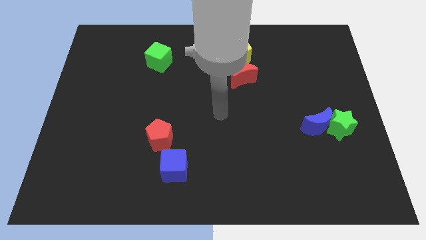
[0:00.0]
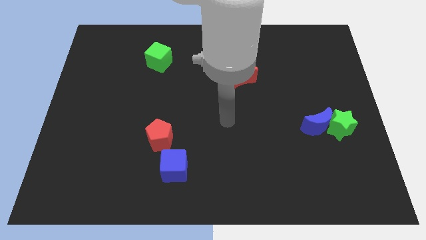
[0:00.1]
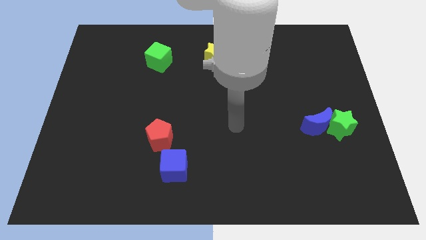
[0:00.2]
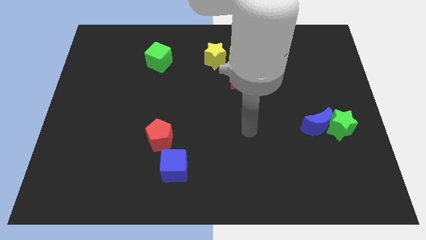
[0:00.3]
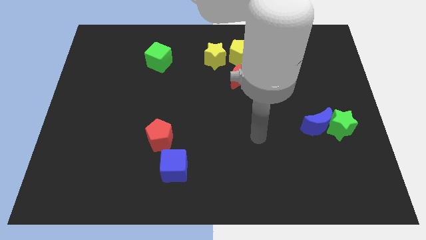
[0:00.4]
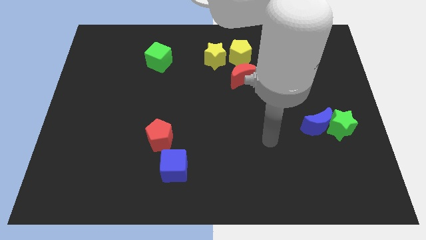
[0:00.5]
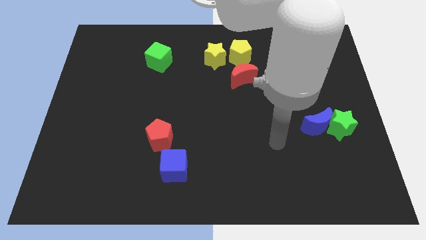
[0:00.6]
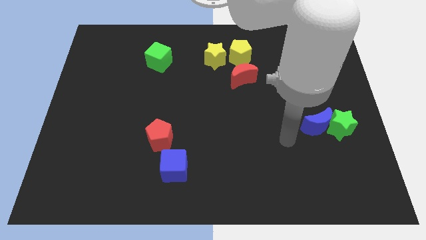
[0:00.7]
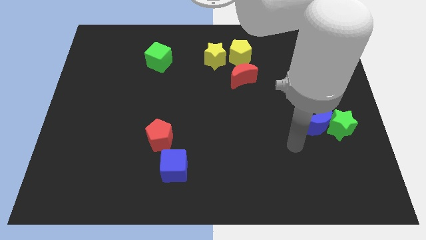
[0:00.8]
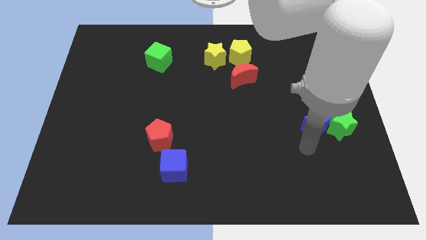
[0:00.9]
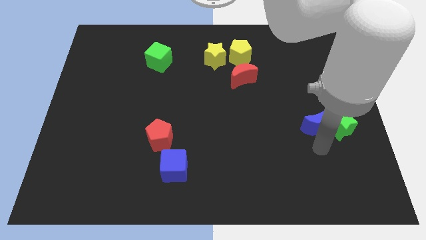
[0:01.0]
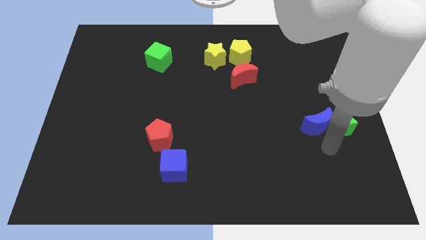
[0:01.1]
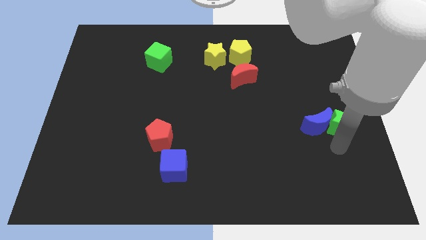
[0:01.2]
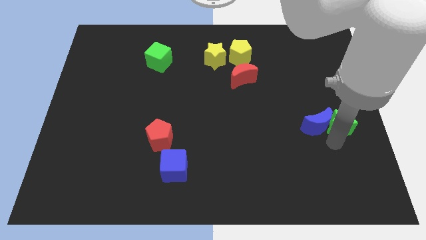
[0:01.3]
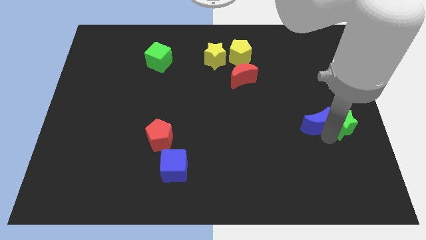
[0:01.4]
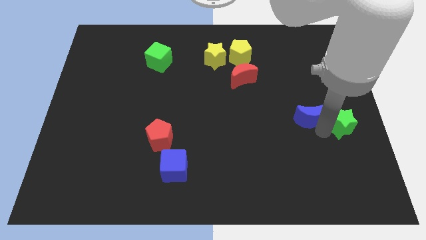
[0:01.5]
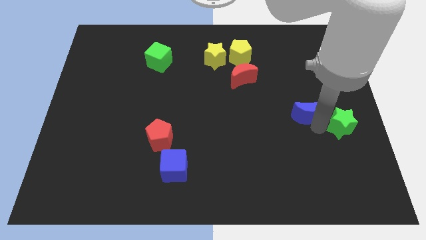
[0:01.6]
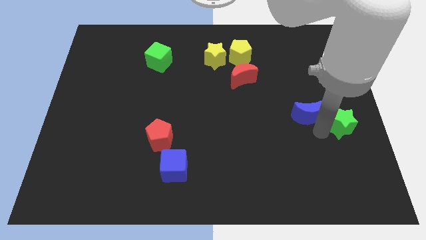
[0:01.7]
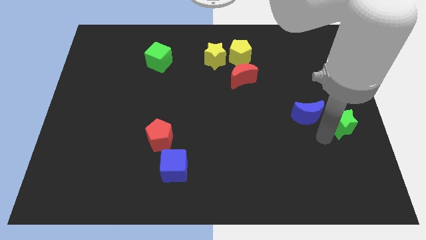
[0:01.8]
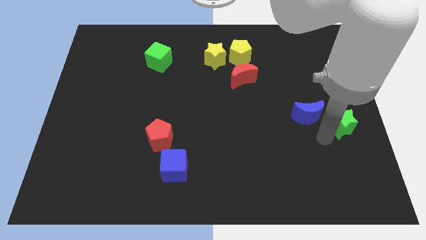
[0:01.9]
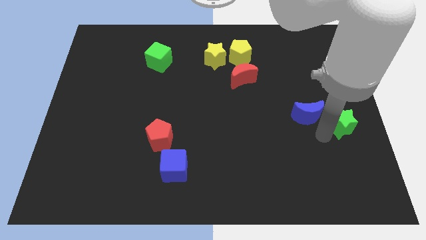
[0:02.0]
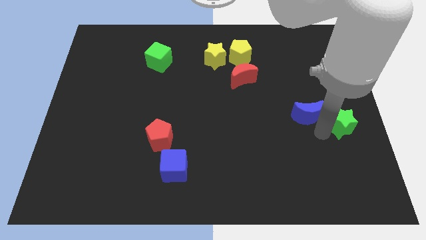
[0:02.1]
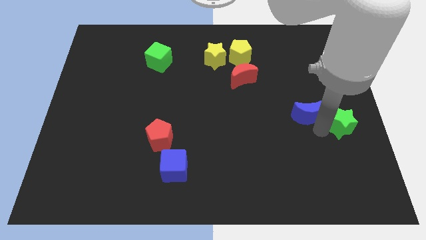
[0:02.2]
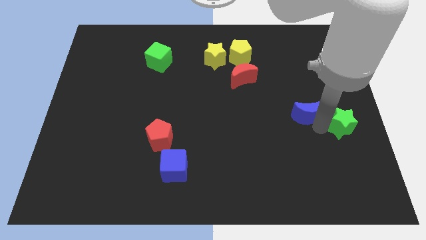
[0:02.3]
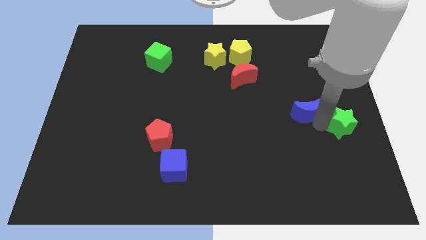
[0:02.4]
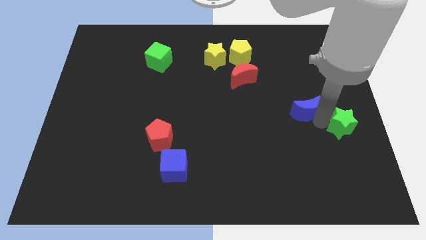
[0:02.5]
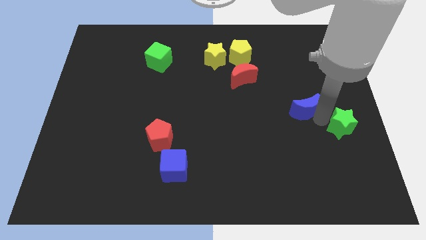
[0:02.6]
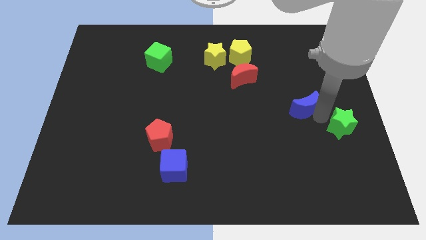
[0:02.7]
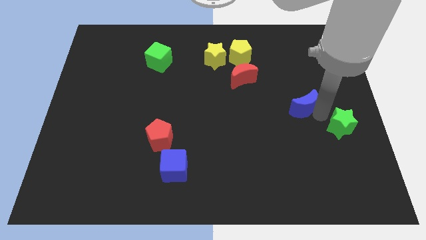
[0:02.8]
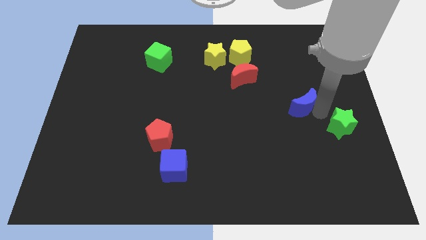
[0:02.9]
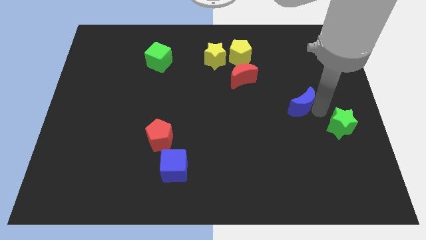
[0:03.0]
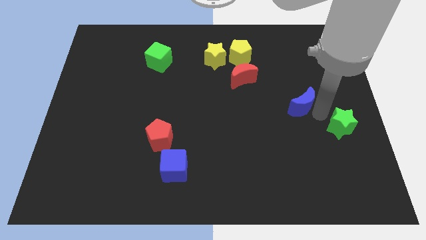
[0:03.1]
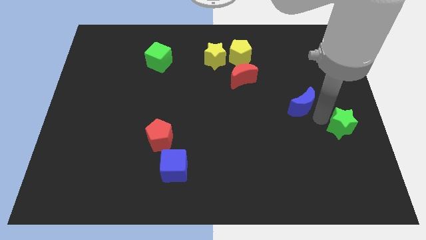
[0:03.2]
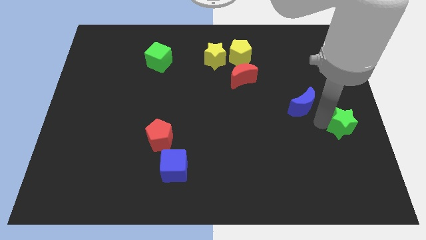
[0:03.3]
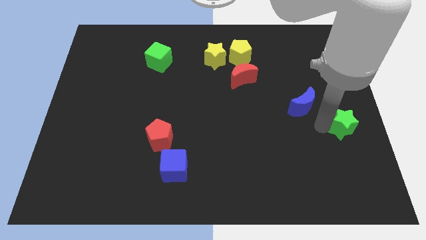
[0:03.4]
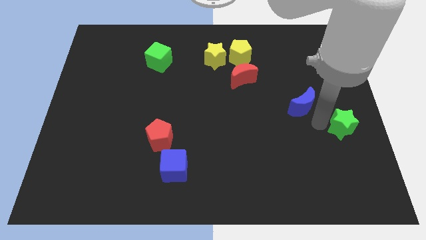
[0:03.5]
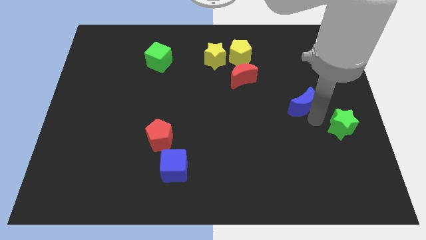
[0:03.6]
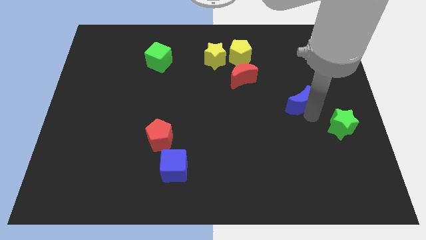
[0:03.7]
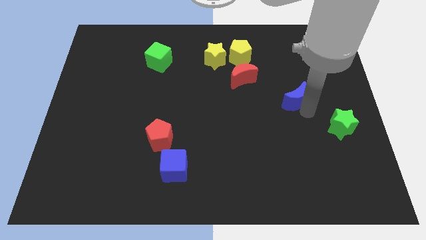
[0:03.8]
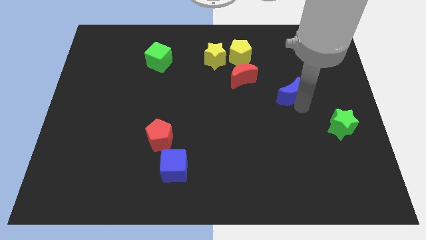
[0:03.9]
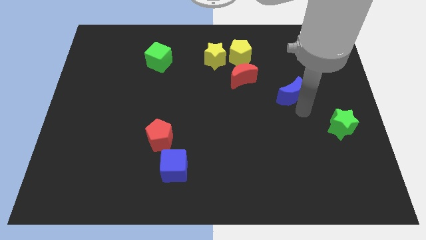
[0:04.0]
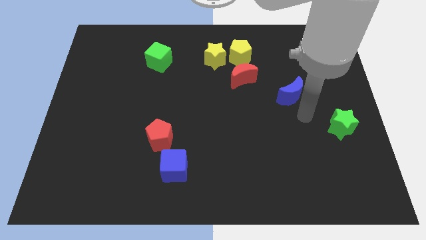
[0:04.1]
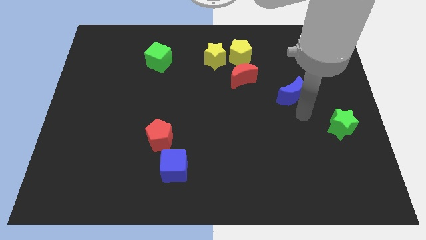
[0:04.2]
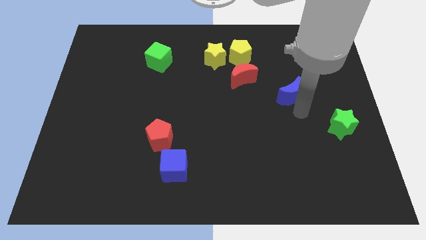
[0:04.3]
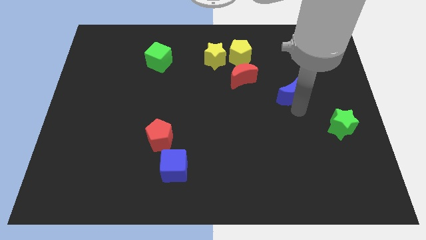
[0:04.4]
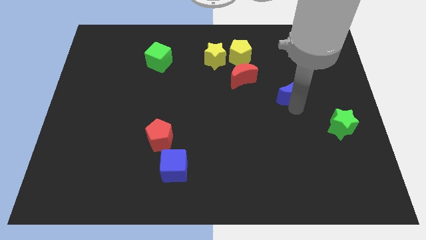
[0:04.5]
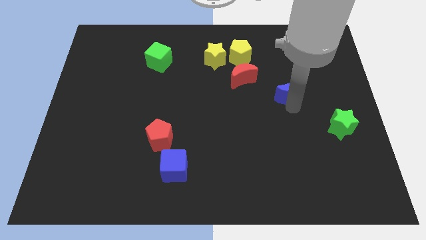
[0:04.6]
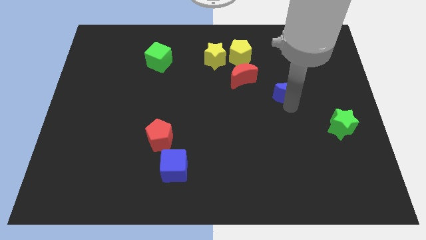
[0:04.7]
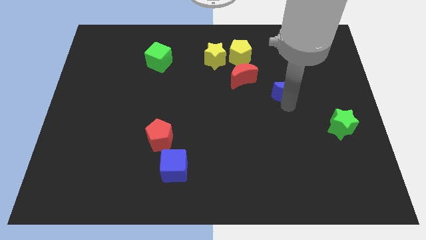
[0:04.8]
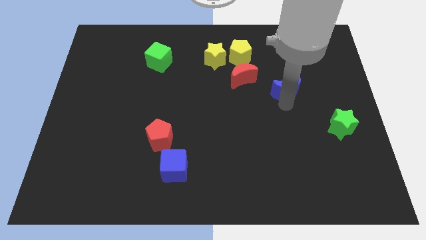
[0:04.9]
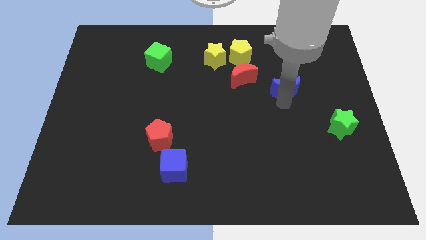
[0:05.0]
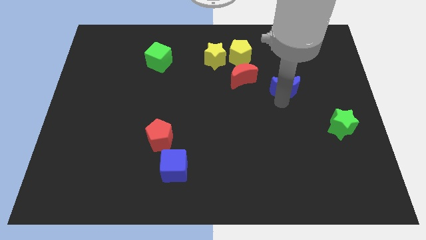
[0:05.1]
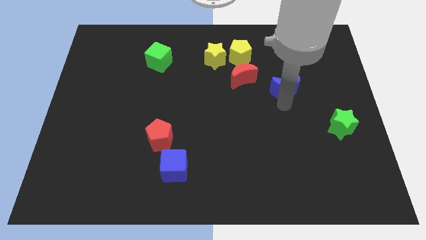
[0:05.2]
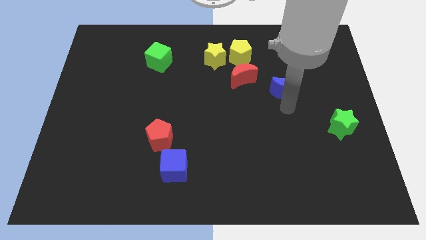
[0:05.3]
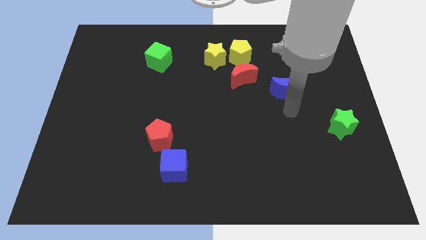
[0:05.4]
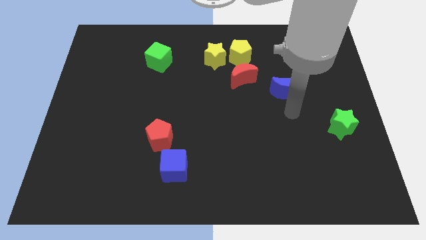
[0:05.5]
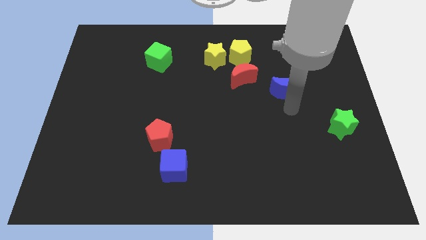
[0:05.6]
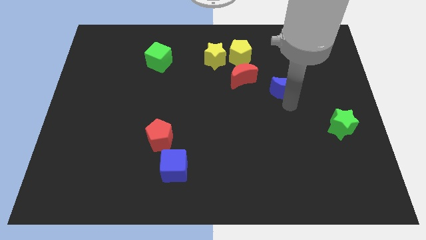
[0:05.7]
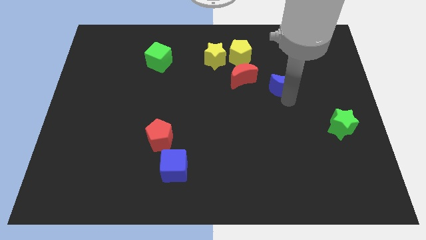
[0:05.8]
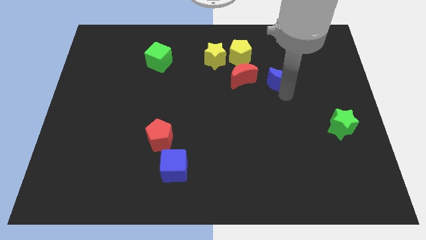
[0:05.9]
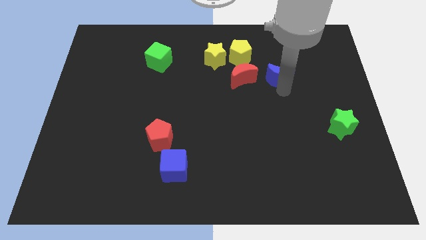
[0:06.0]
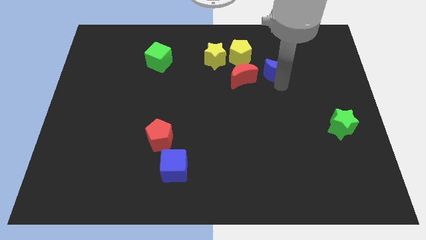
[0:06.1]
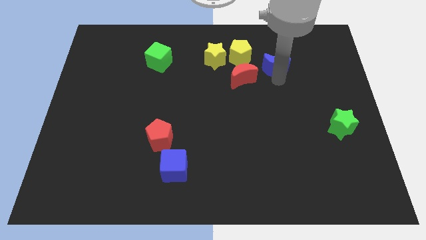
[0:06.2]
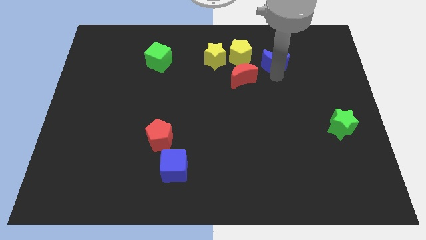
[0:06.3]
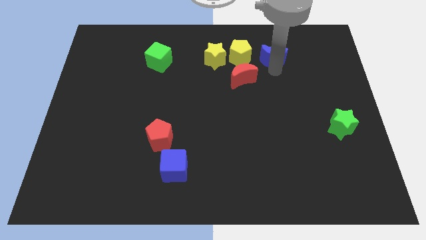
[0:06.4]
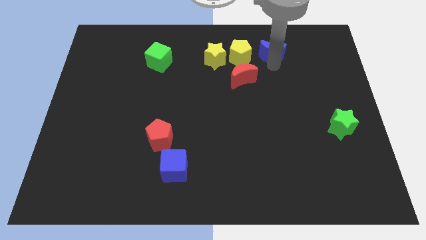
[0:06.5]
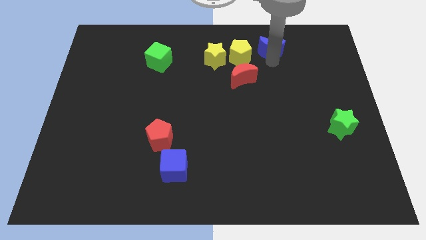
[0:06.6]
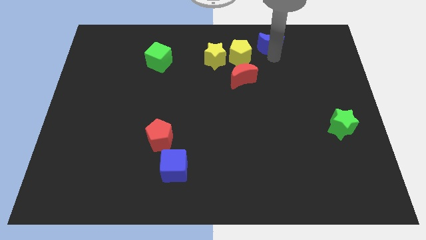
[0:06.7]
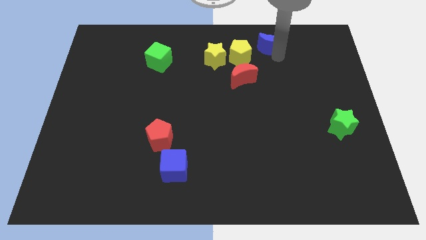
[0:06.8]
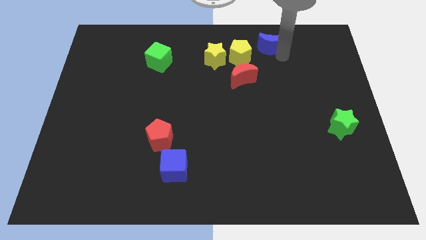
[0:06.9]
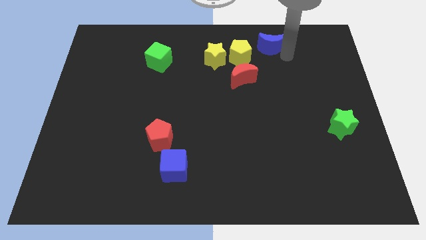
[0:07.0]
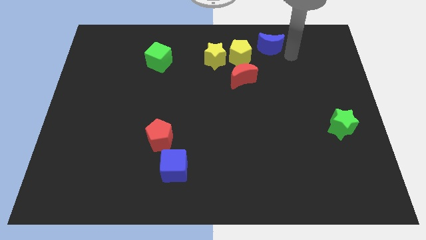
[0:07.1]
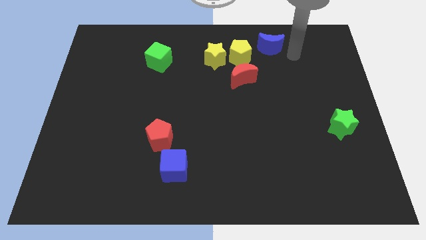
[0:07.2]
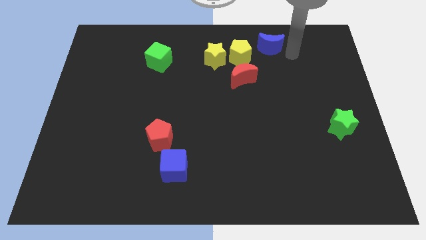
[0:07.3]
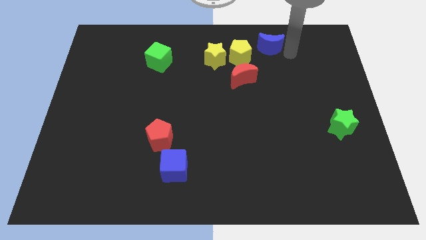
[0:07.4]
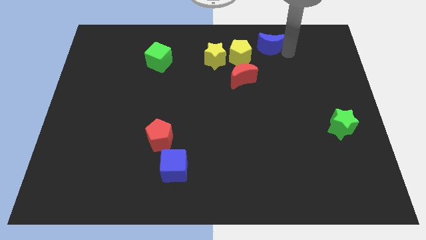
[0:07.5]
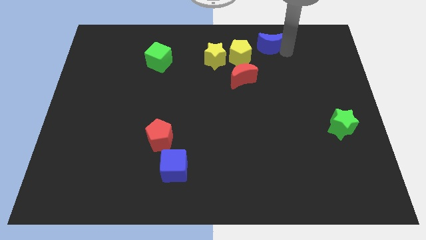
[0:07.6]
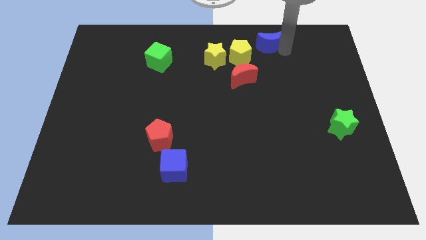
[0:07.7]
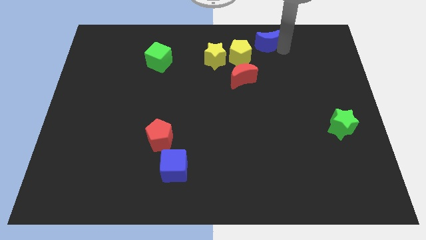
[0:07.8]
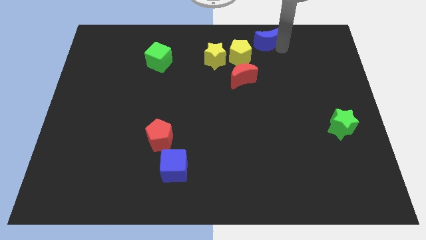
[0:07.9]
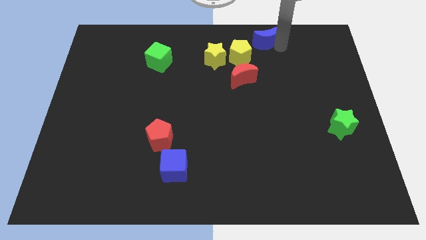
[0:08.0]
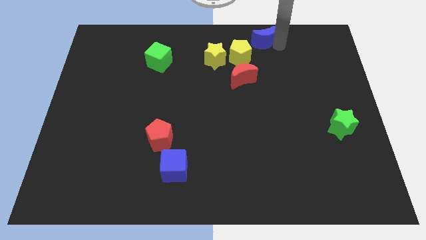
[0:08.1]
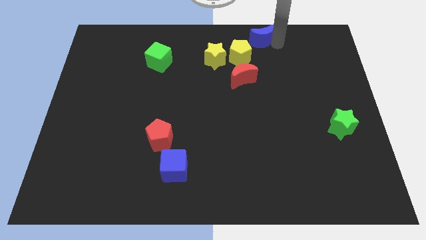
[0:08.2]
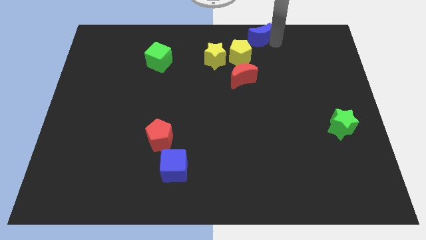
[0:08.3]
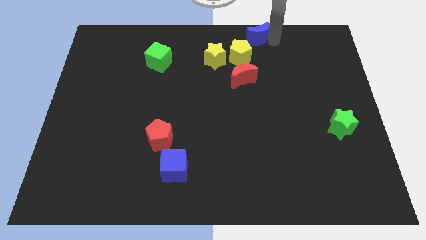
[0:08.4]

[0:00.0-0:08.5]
slide the blue moon to the top side
